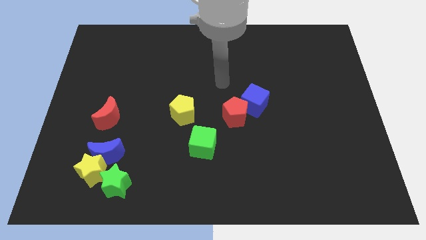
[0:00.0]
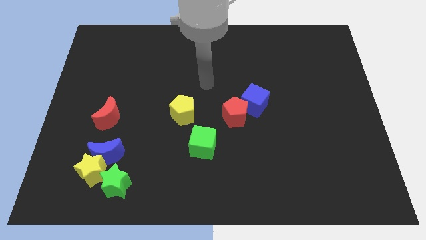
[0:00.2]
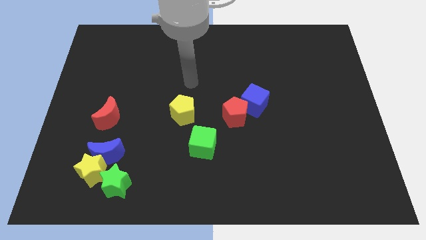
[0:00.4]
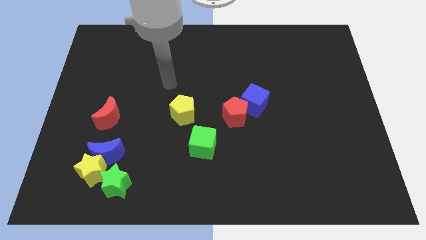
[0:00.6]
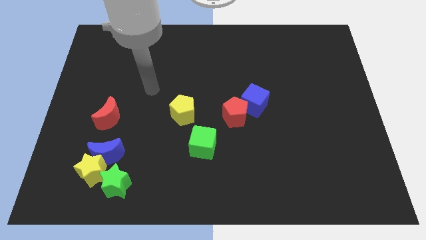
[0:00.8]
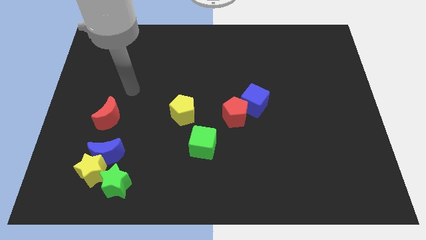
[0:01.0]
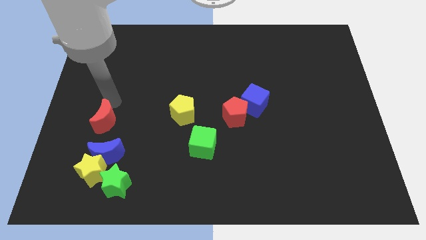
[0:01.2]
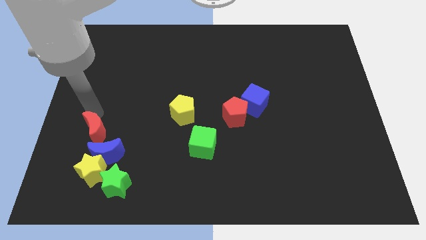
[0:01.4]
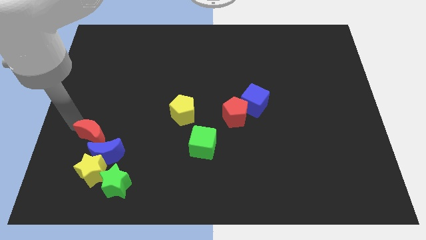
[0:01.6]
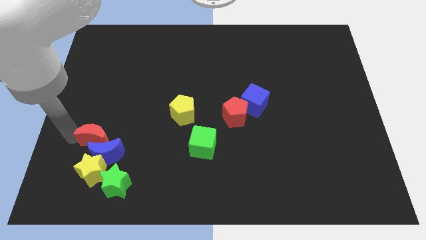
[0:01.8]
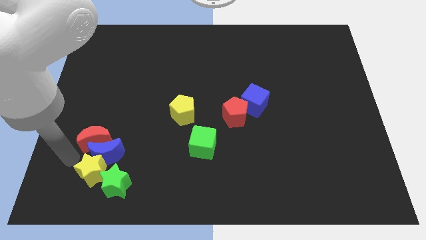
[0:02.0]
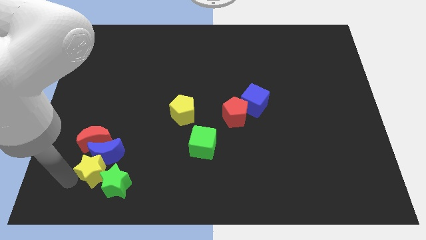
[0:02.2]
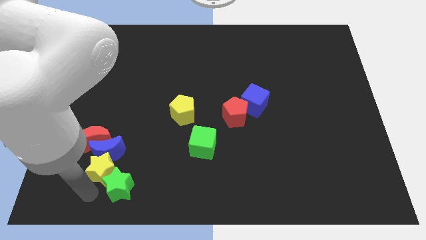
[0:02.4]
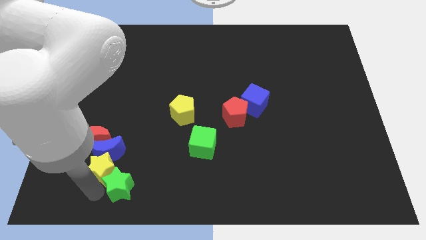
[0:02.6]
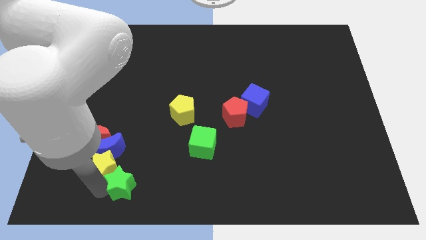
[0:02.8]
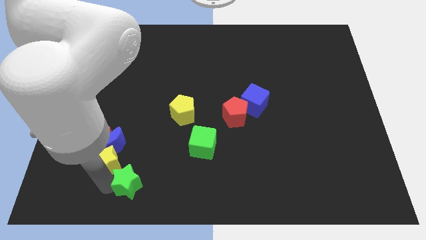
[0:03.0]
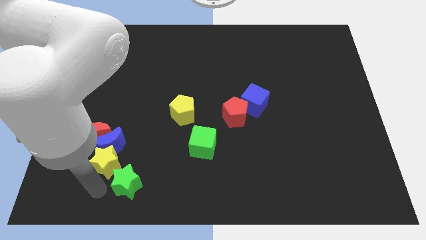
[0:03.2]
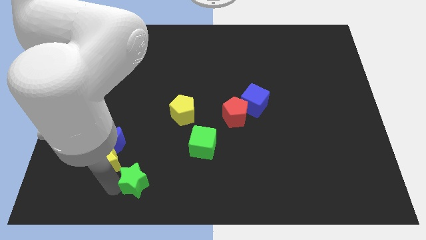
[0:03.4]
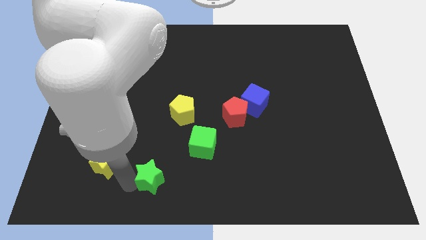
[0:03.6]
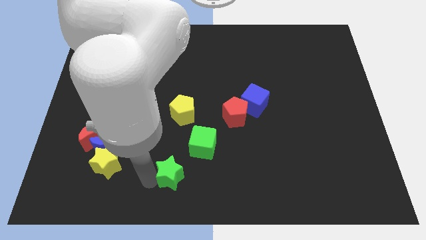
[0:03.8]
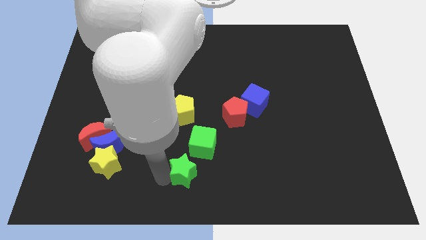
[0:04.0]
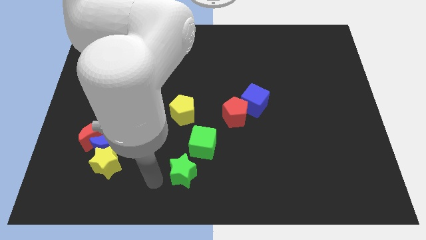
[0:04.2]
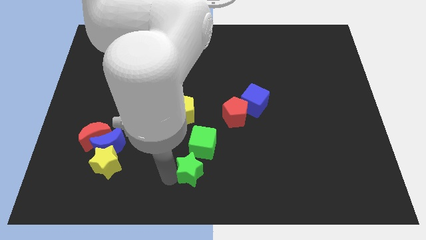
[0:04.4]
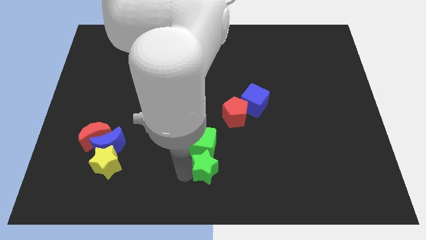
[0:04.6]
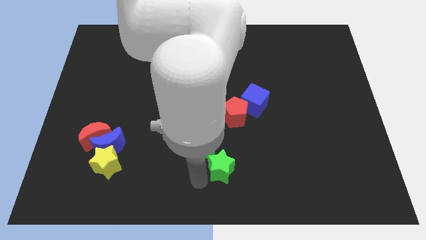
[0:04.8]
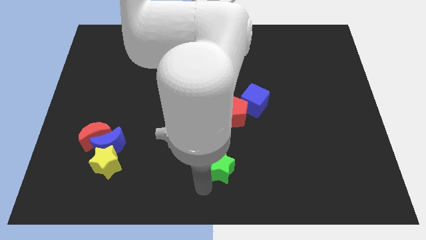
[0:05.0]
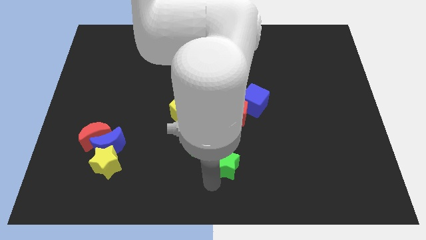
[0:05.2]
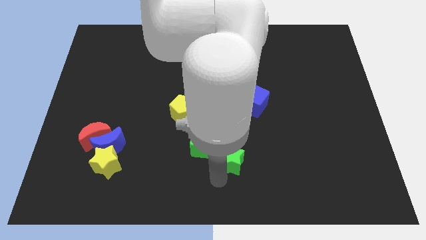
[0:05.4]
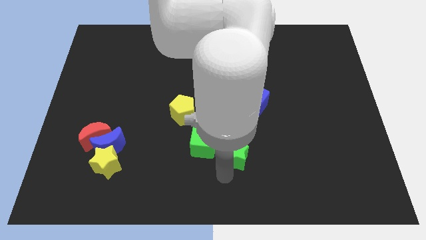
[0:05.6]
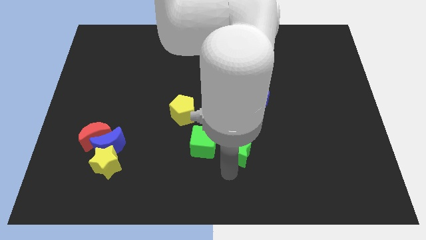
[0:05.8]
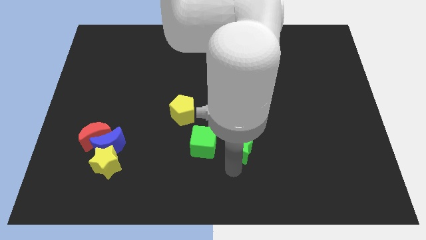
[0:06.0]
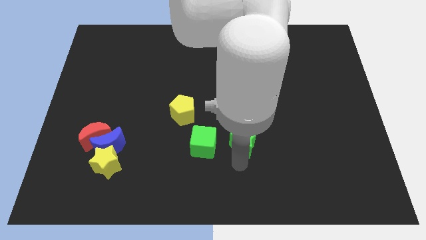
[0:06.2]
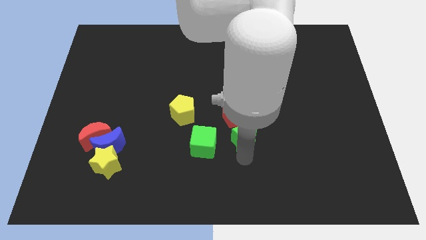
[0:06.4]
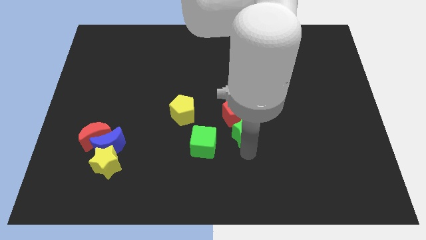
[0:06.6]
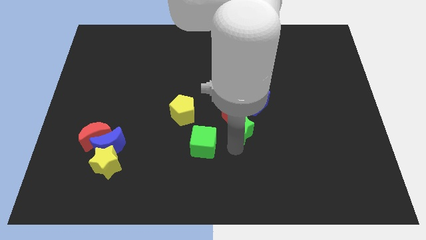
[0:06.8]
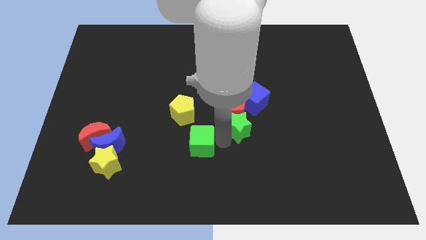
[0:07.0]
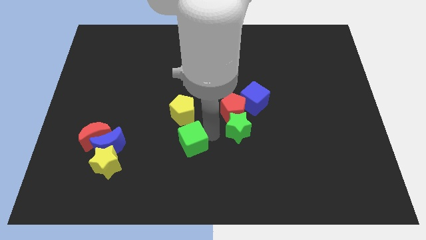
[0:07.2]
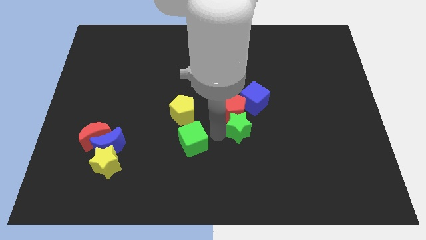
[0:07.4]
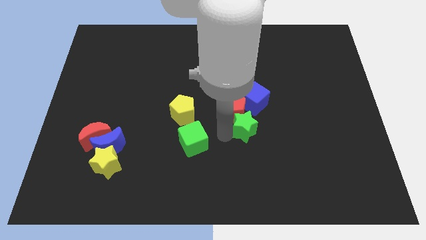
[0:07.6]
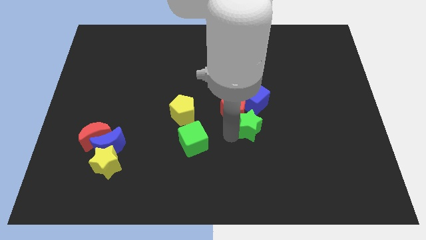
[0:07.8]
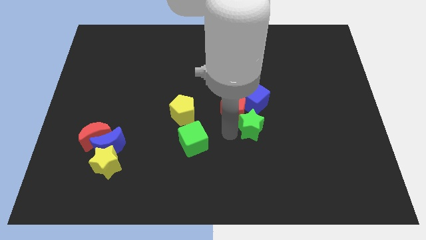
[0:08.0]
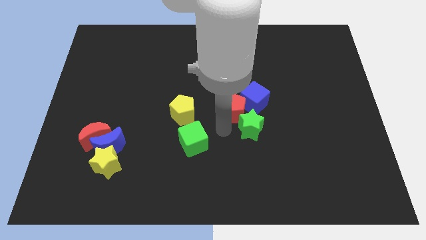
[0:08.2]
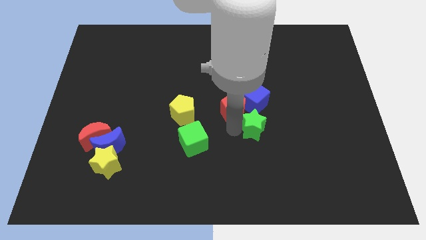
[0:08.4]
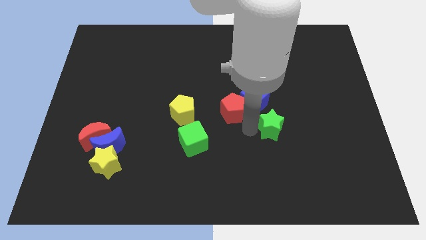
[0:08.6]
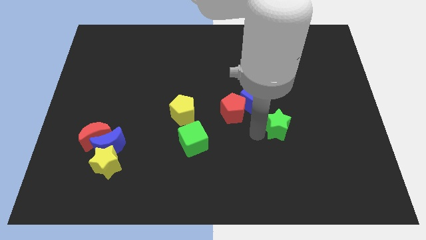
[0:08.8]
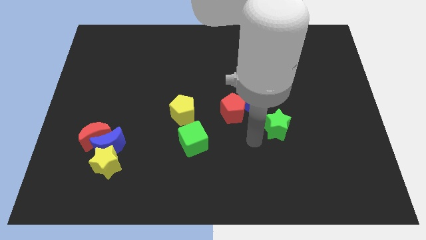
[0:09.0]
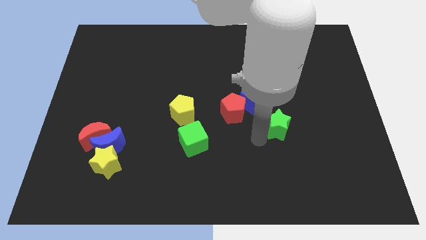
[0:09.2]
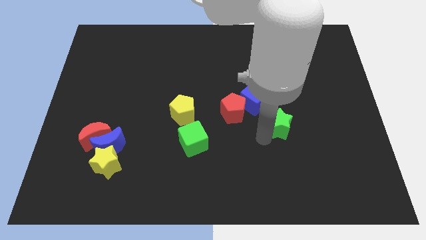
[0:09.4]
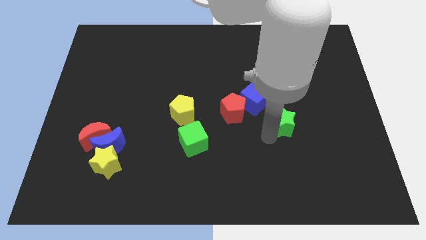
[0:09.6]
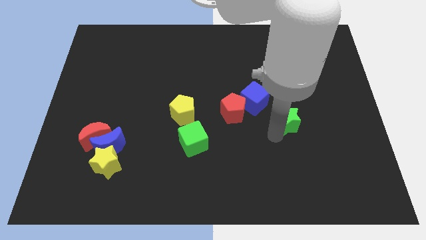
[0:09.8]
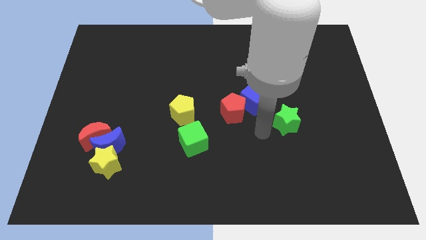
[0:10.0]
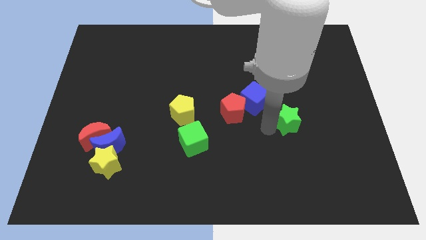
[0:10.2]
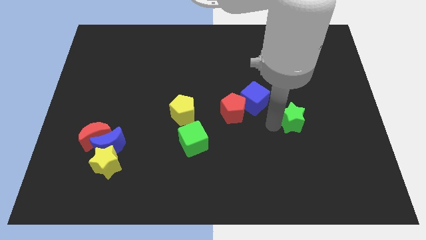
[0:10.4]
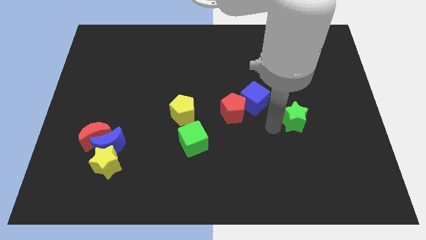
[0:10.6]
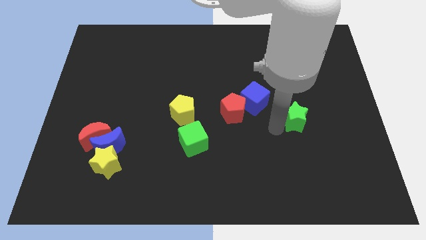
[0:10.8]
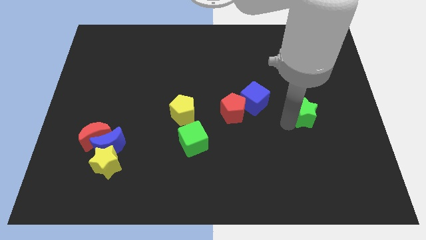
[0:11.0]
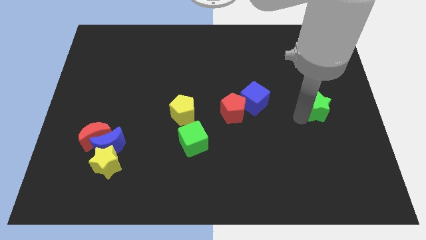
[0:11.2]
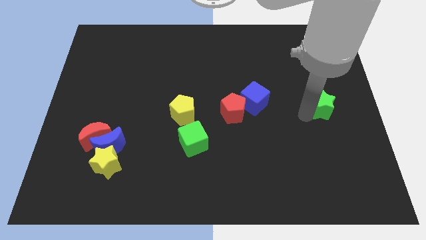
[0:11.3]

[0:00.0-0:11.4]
slide the green star to the center right

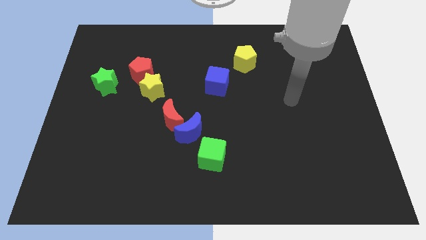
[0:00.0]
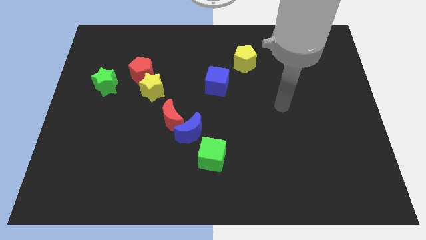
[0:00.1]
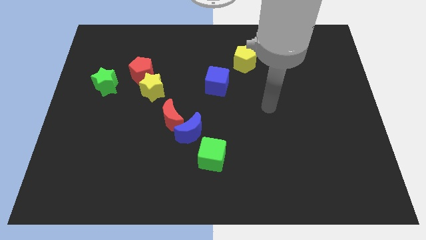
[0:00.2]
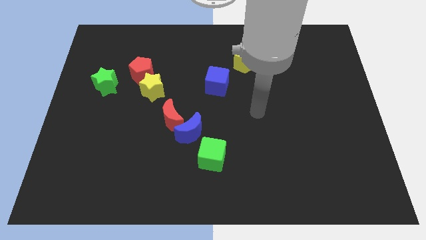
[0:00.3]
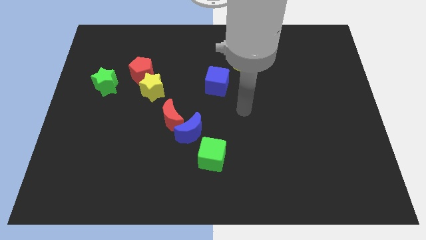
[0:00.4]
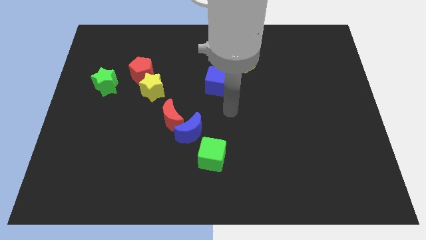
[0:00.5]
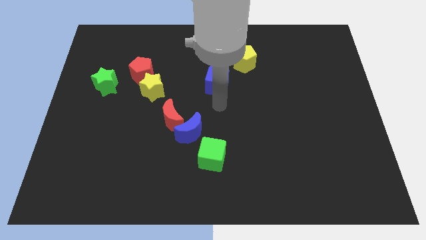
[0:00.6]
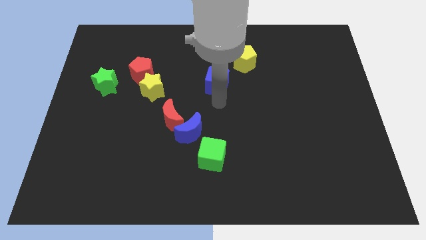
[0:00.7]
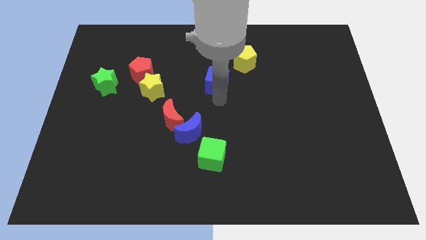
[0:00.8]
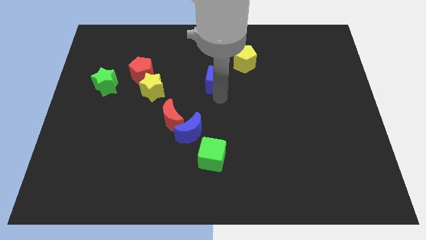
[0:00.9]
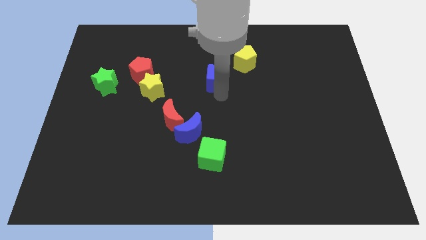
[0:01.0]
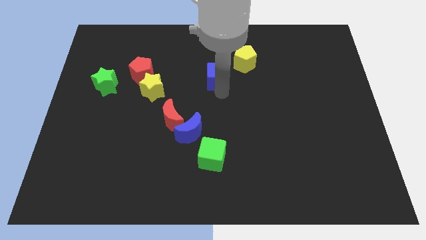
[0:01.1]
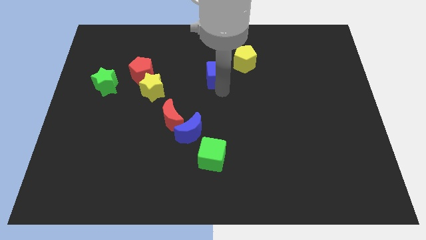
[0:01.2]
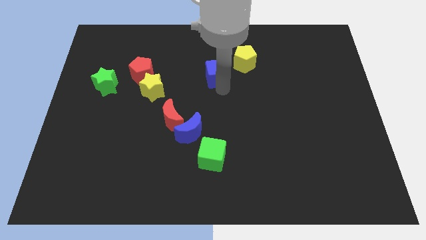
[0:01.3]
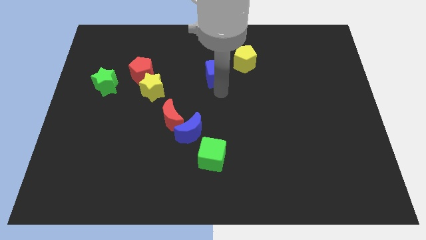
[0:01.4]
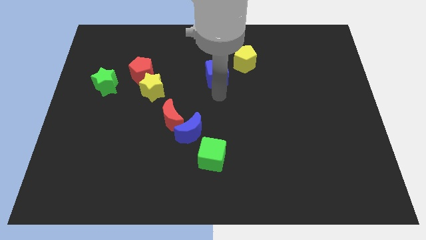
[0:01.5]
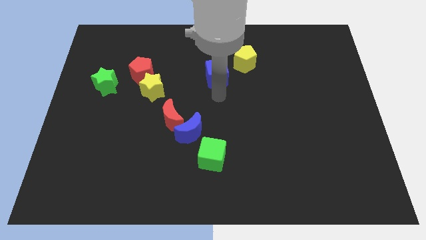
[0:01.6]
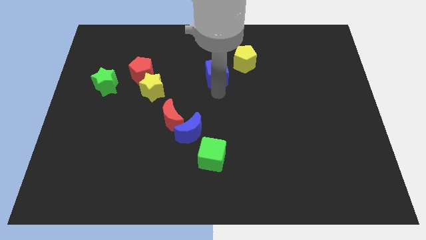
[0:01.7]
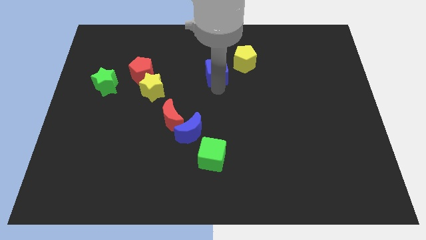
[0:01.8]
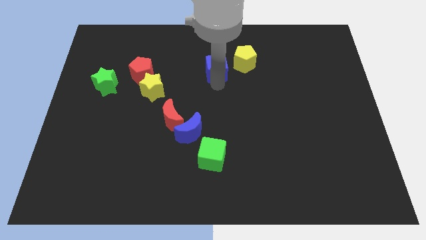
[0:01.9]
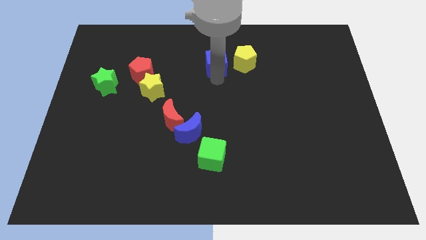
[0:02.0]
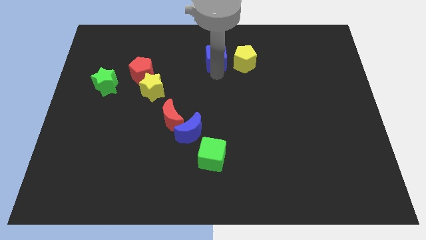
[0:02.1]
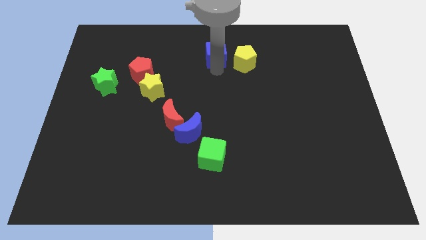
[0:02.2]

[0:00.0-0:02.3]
put the blue cube to the towards your base
